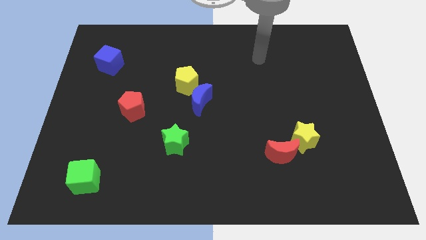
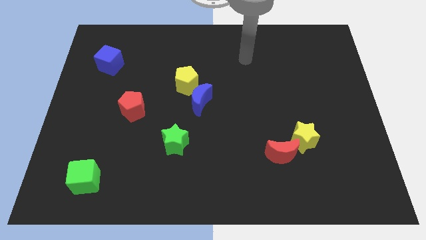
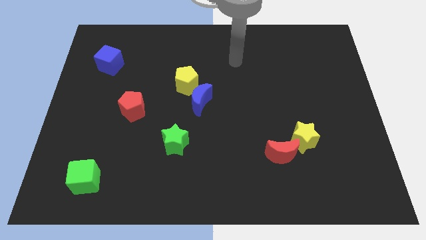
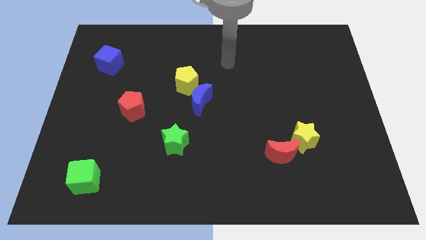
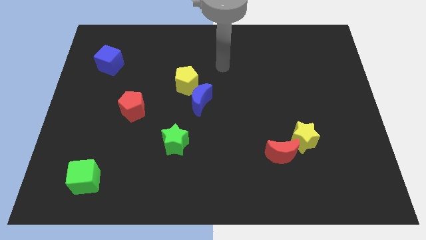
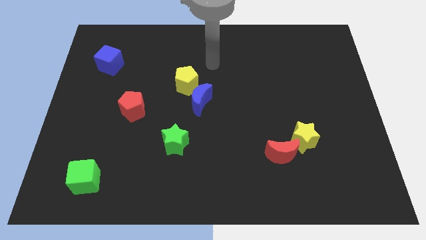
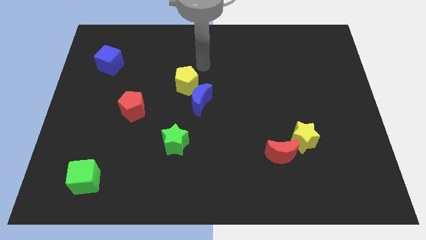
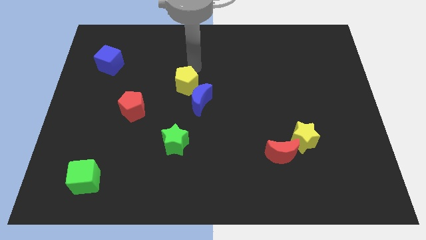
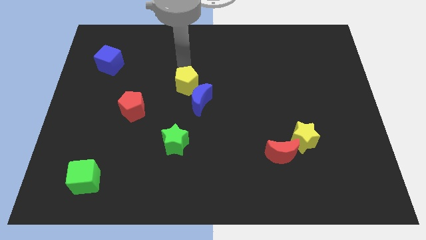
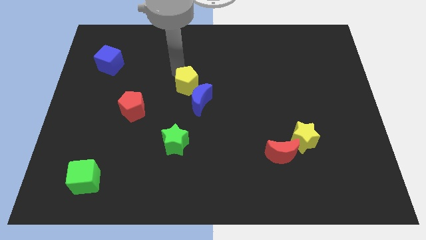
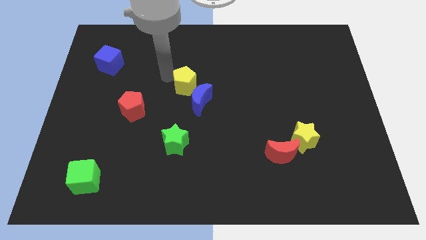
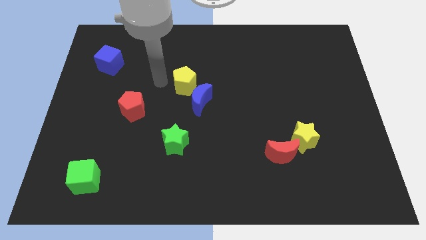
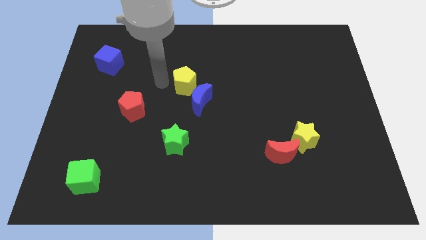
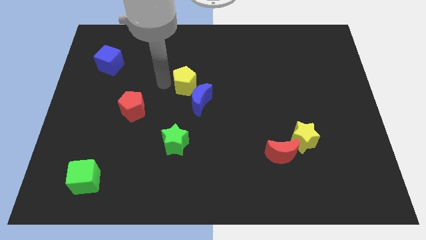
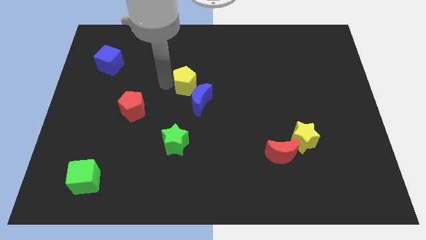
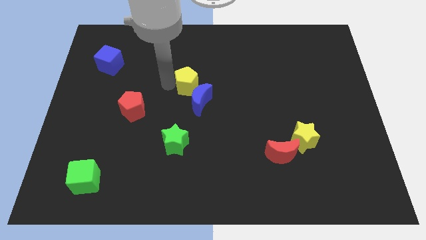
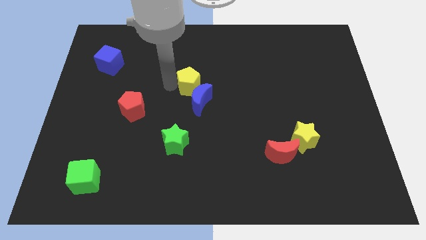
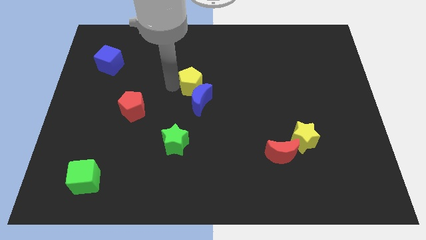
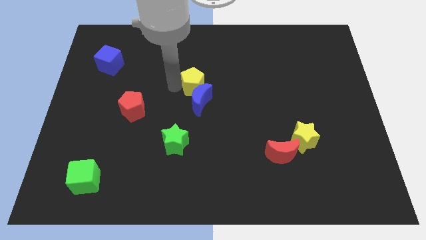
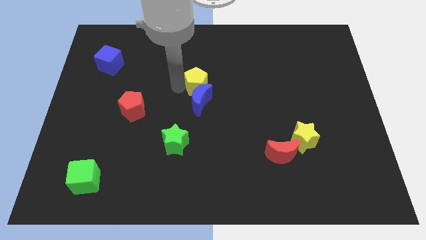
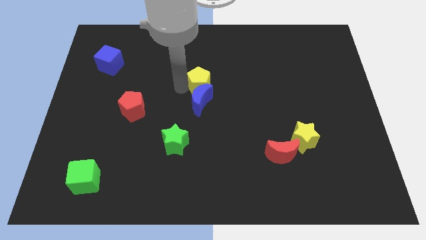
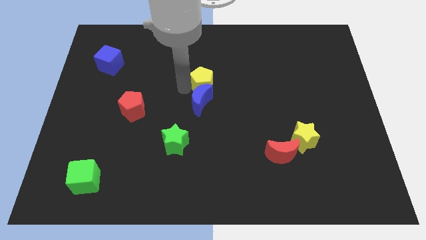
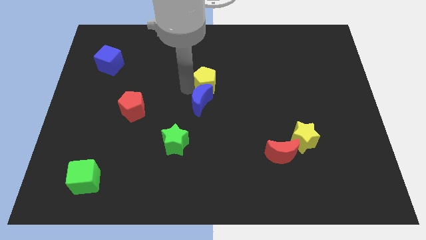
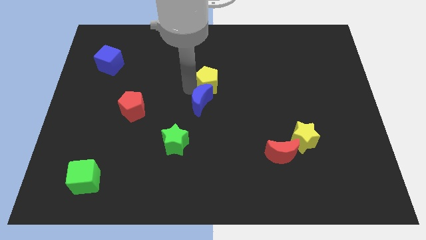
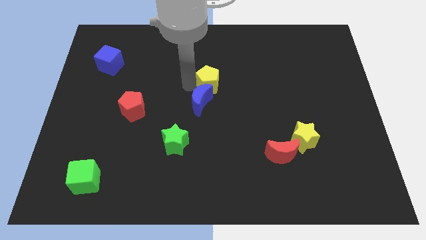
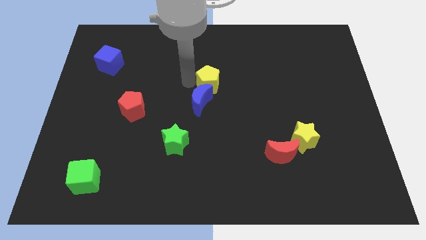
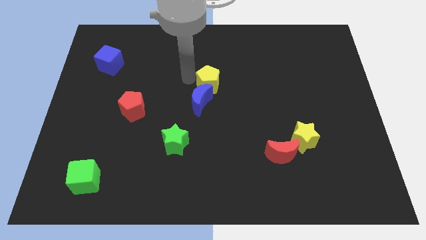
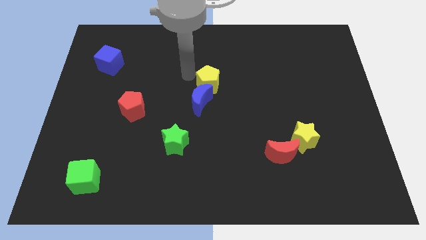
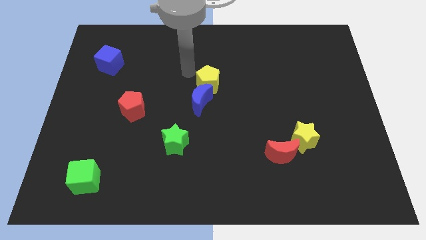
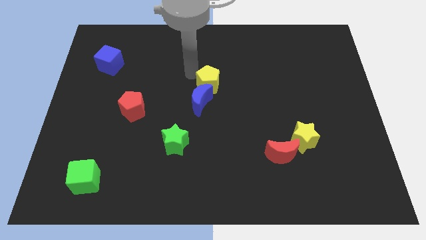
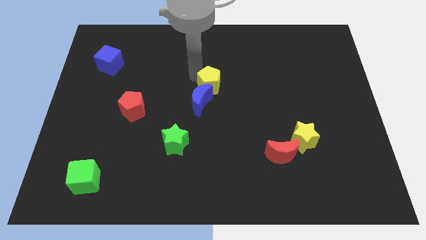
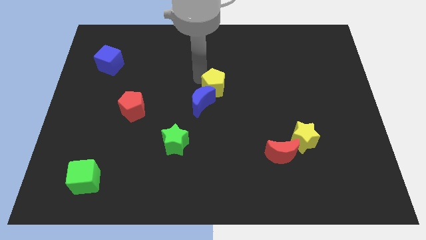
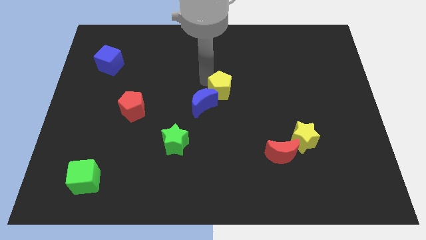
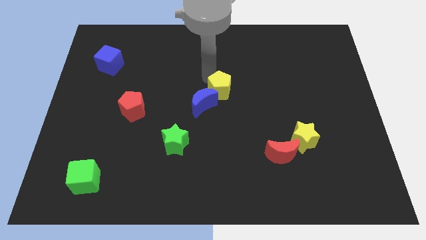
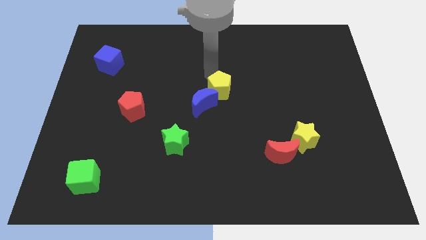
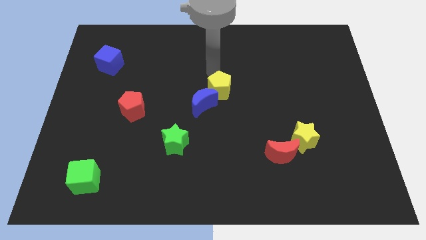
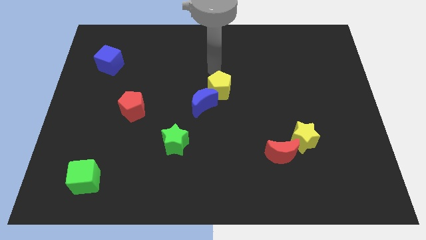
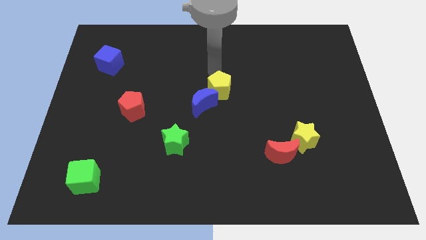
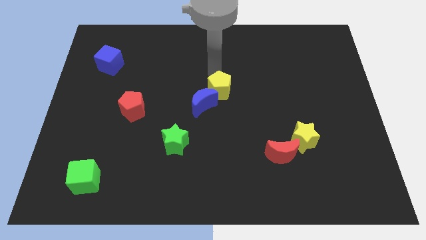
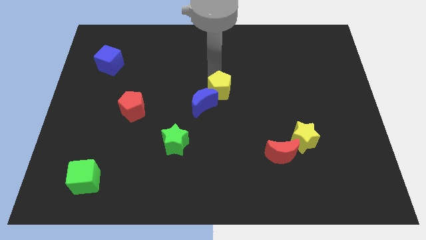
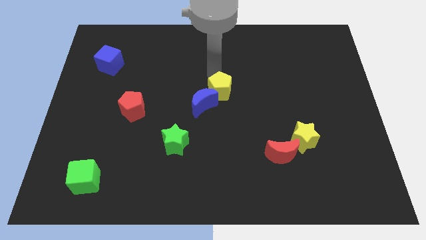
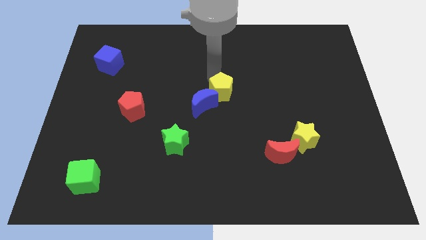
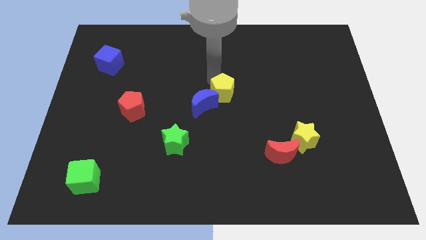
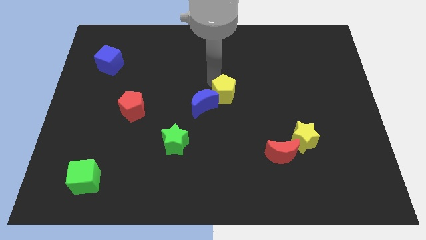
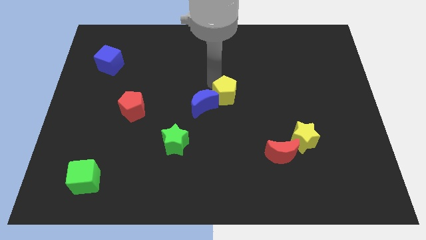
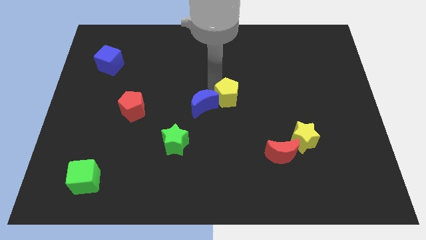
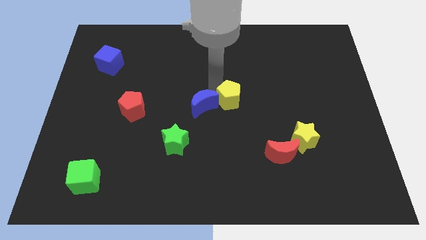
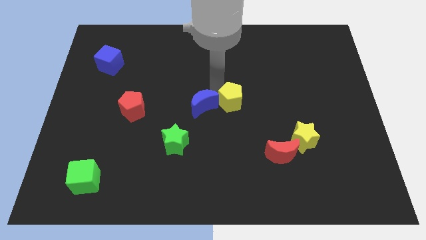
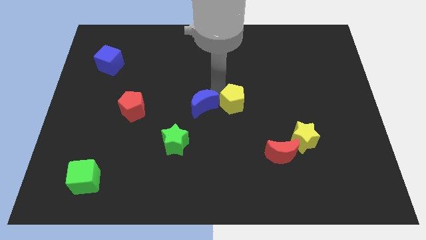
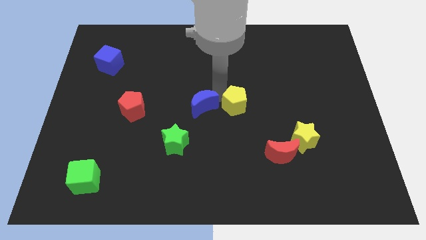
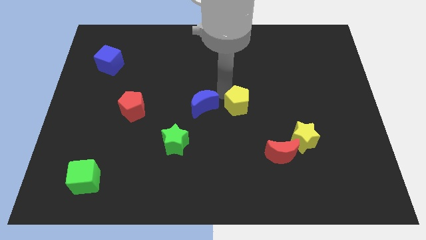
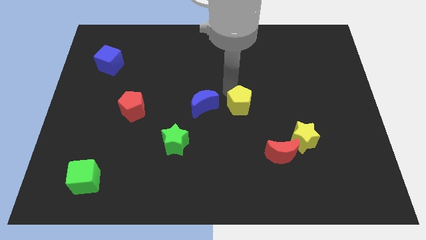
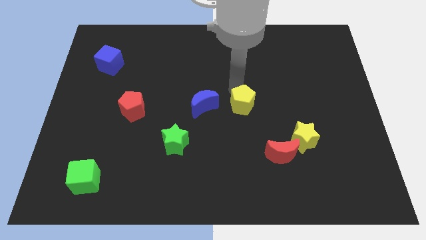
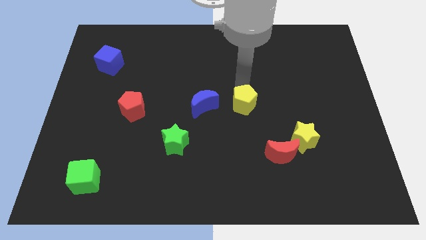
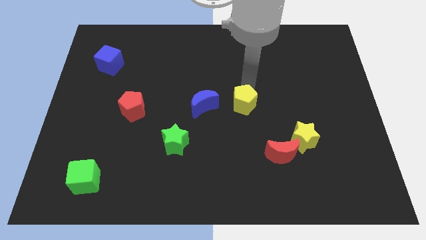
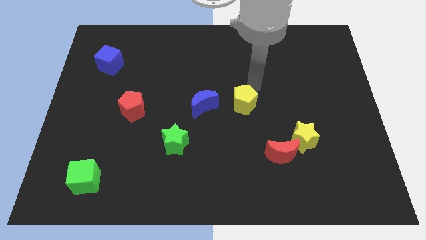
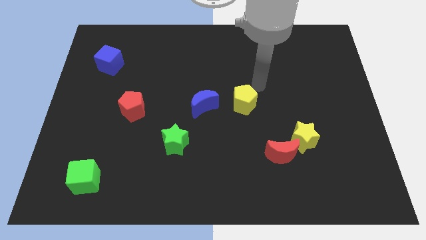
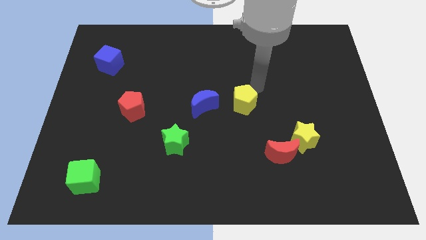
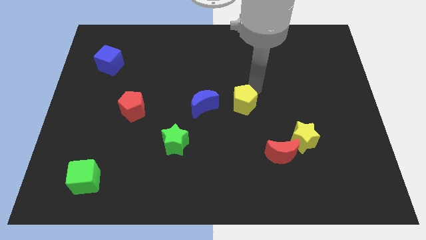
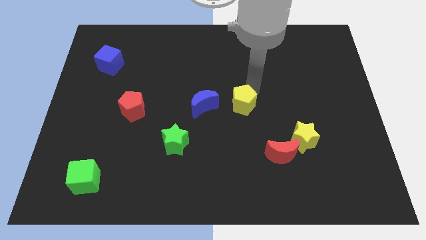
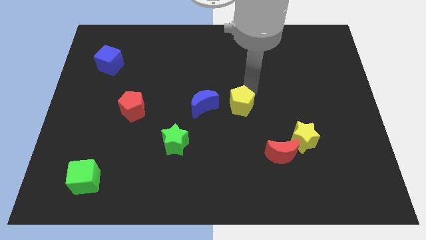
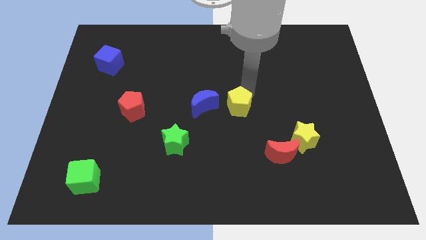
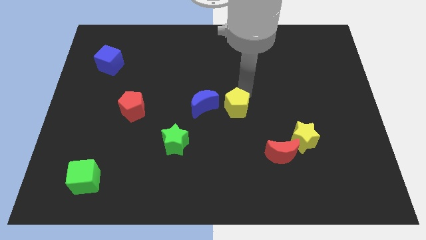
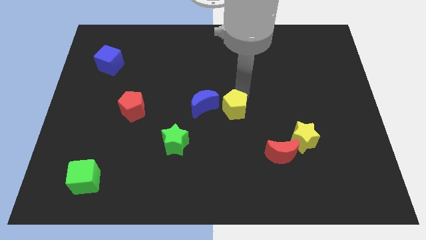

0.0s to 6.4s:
move the yellow pentagon diagonally down and to the right of the blue moon
